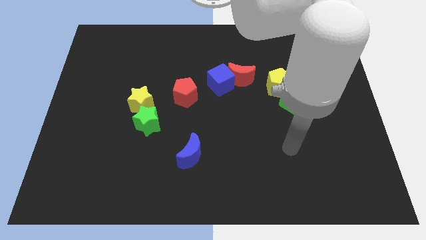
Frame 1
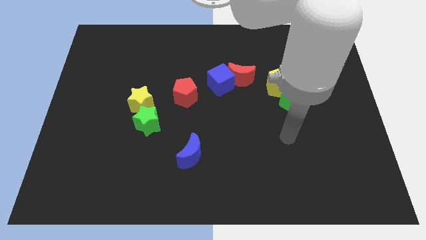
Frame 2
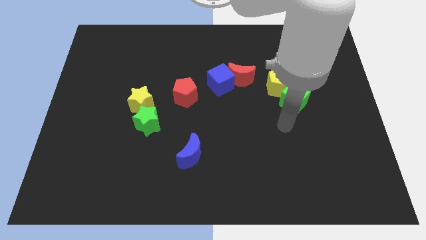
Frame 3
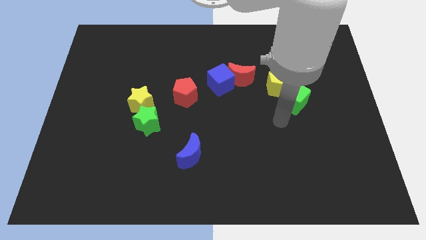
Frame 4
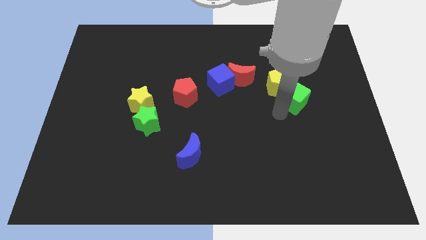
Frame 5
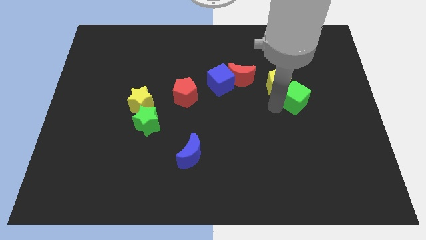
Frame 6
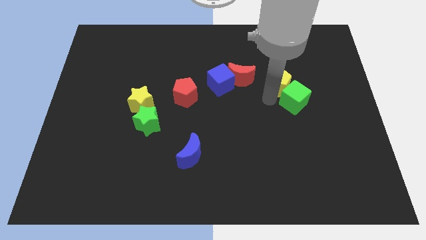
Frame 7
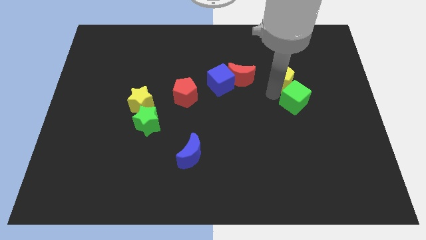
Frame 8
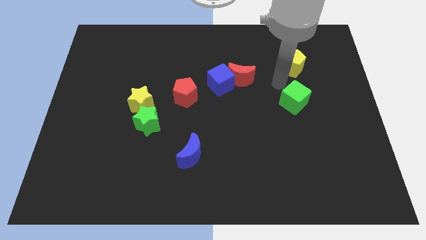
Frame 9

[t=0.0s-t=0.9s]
move the green cube away from the yellow pentagon

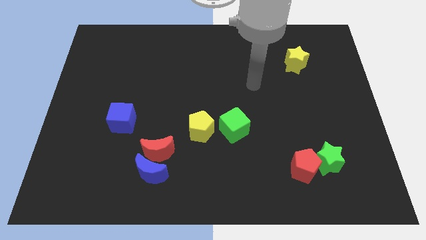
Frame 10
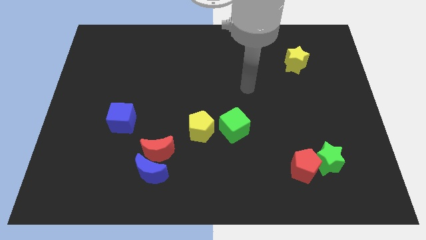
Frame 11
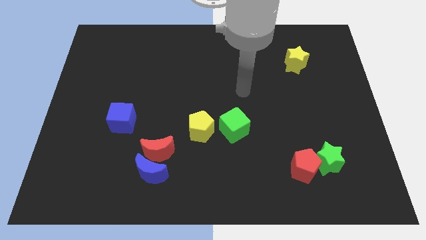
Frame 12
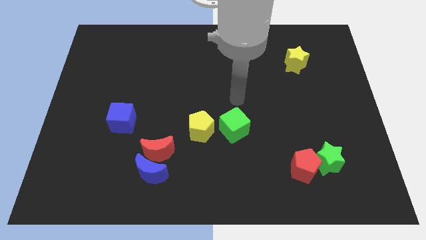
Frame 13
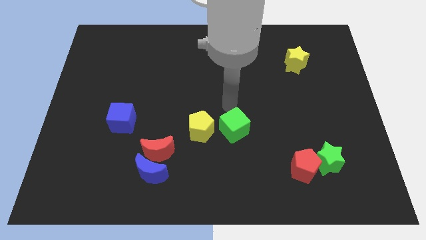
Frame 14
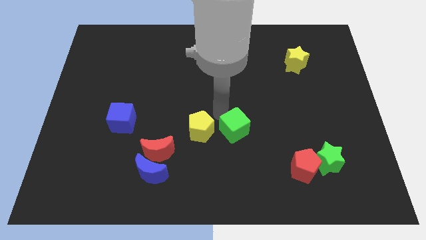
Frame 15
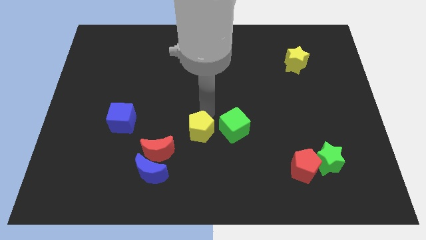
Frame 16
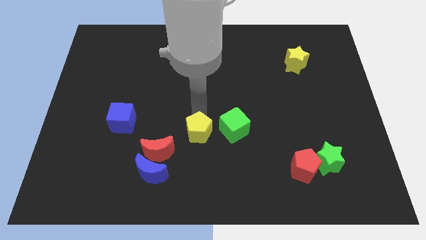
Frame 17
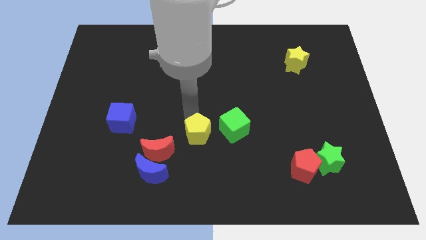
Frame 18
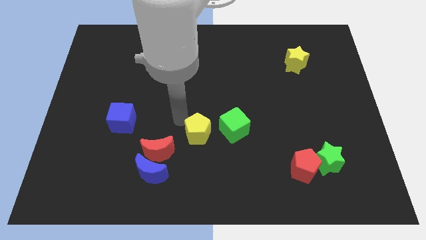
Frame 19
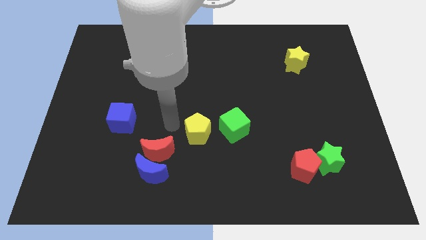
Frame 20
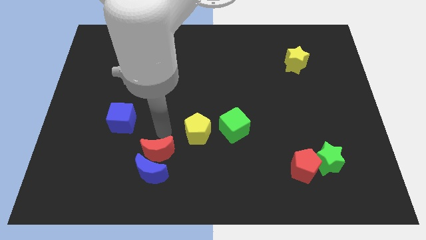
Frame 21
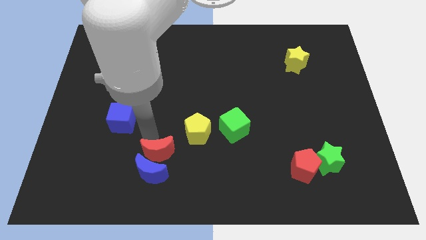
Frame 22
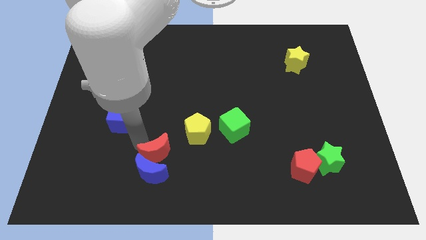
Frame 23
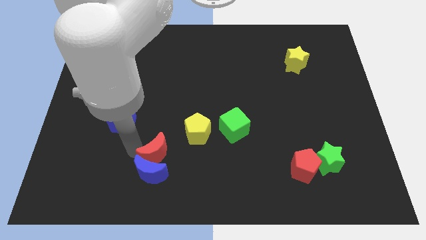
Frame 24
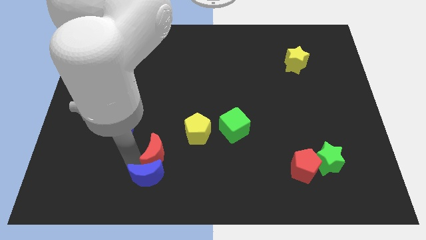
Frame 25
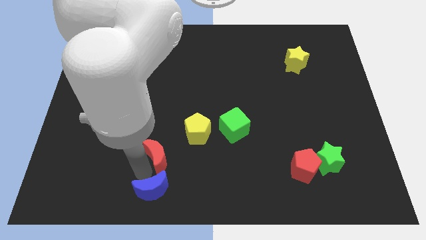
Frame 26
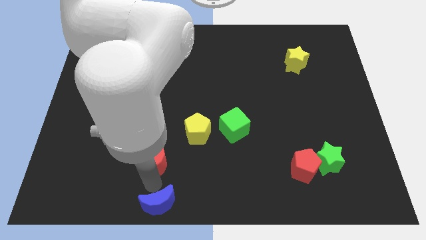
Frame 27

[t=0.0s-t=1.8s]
pull the red moon apart from the blue moon

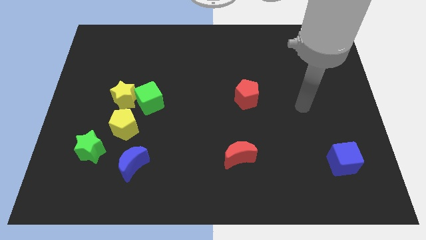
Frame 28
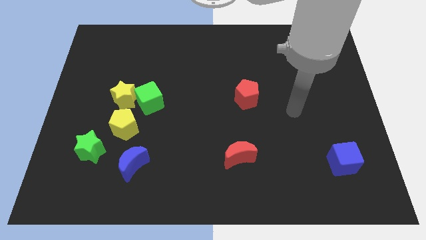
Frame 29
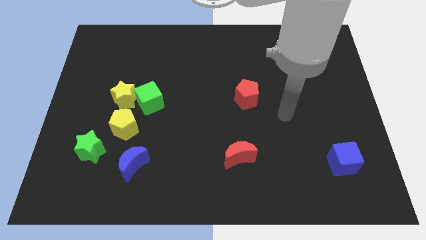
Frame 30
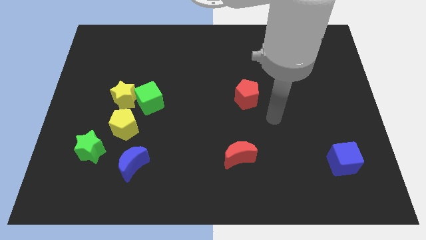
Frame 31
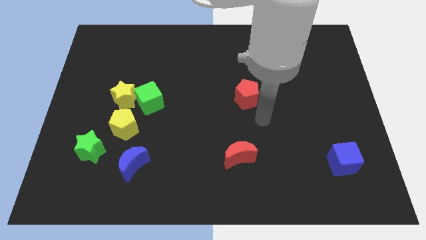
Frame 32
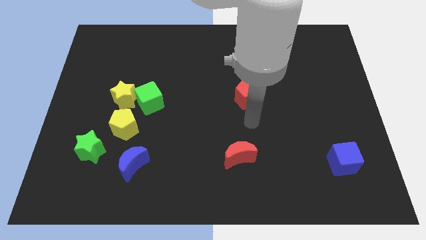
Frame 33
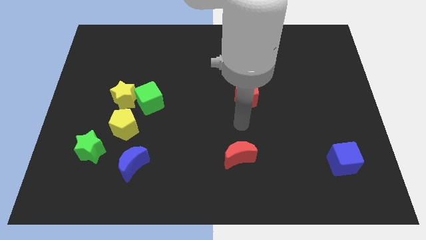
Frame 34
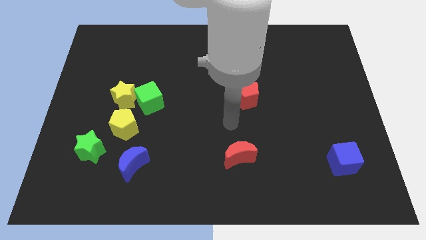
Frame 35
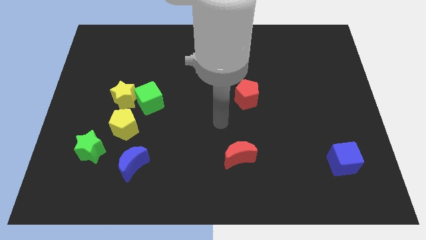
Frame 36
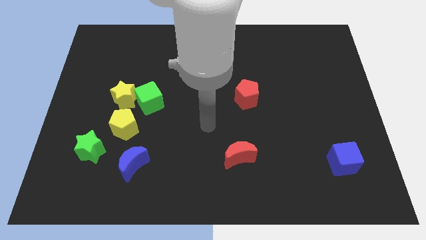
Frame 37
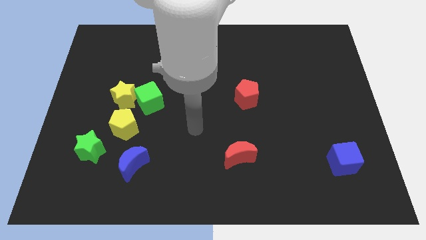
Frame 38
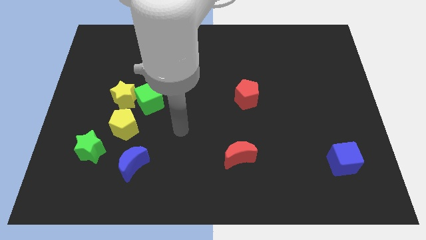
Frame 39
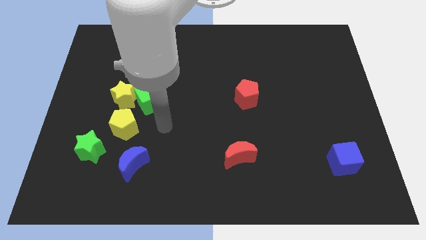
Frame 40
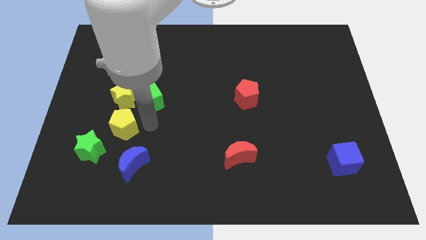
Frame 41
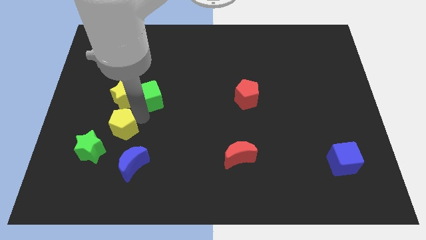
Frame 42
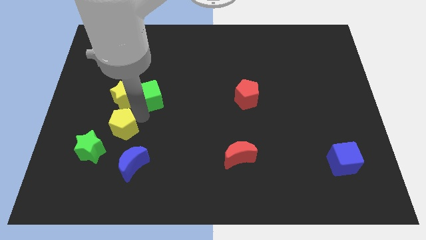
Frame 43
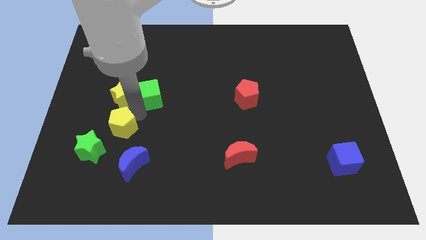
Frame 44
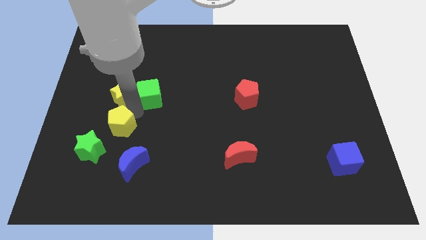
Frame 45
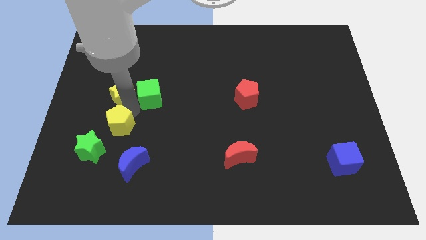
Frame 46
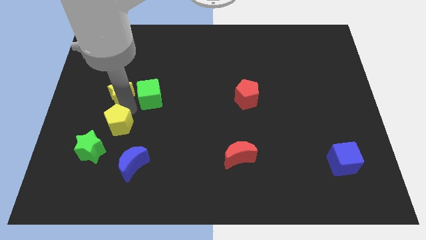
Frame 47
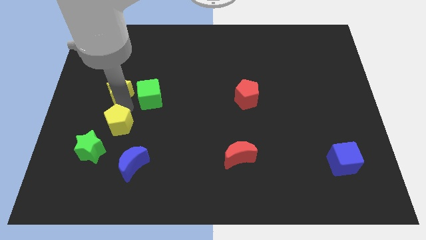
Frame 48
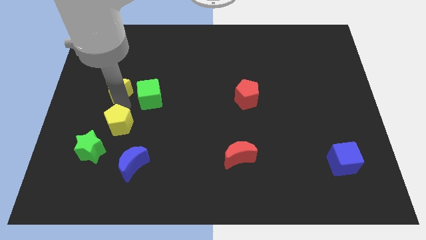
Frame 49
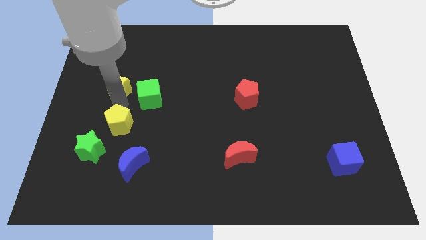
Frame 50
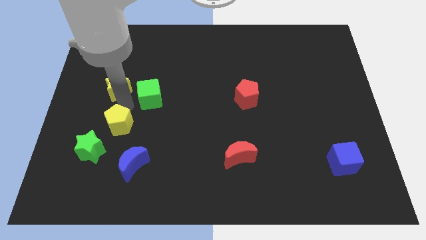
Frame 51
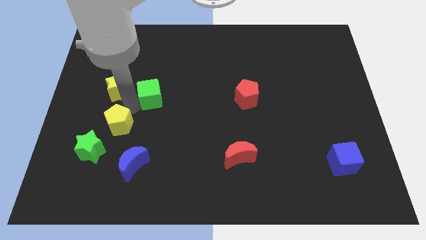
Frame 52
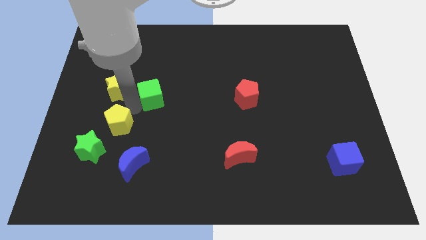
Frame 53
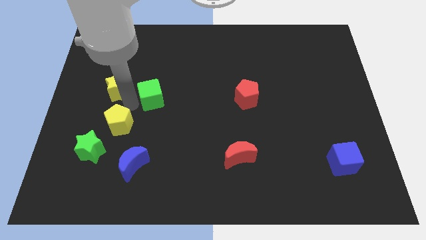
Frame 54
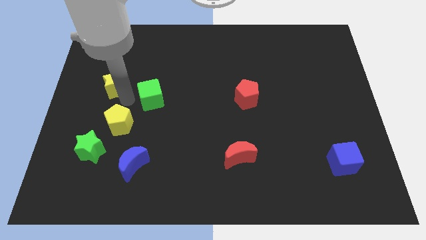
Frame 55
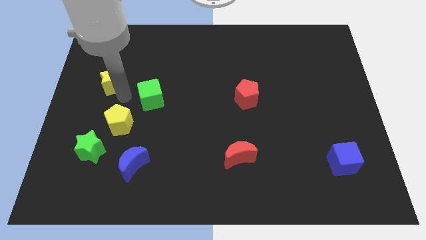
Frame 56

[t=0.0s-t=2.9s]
pull the yellow star apart from the green cube and yellow pentagon

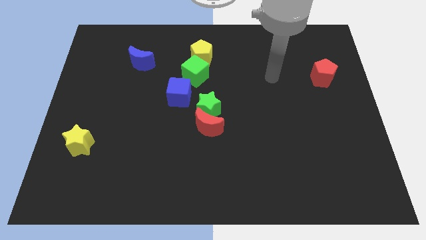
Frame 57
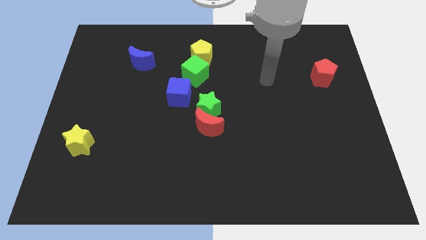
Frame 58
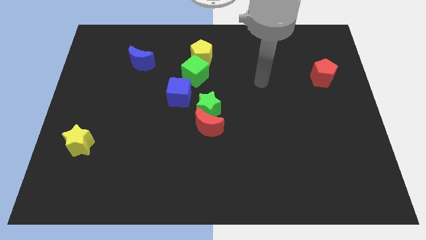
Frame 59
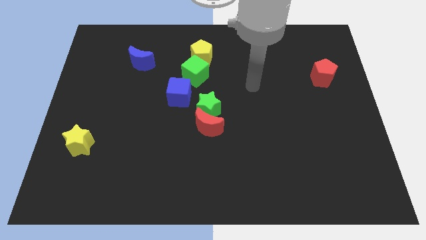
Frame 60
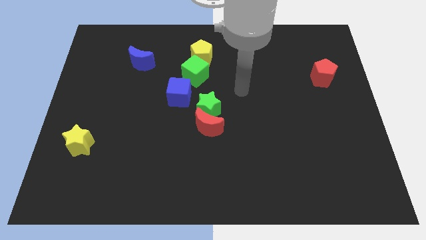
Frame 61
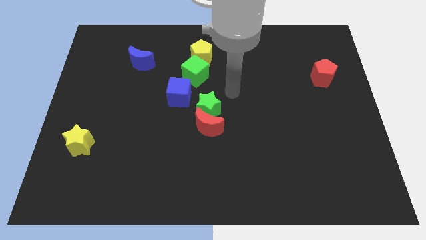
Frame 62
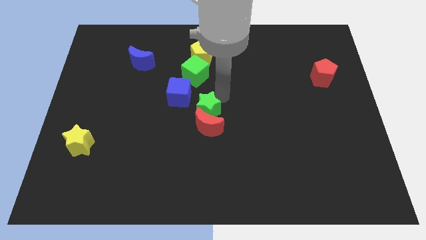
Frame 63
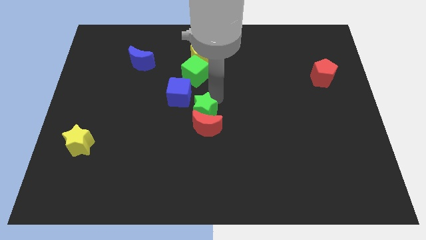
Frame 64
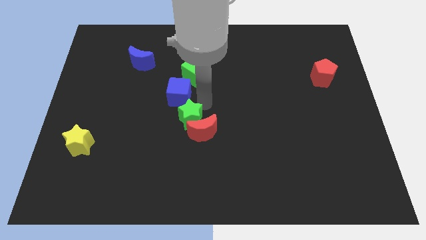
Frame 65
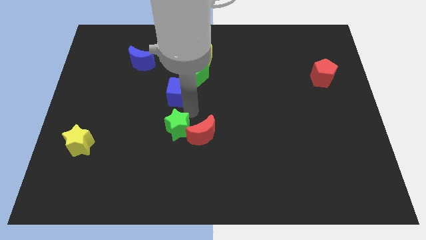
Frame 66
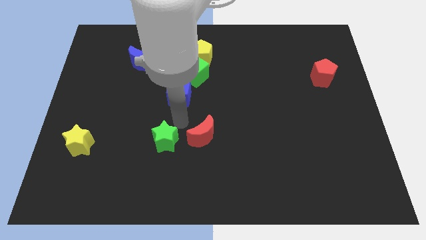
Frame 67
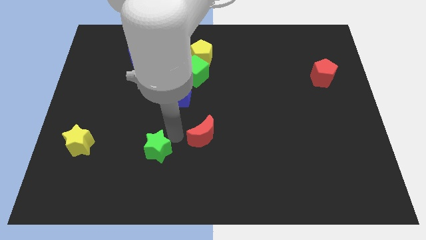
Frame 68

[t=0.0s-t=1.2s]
move the red moon away from the green star

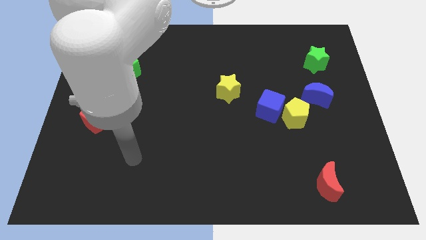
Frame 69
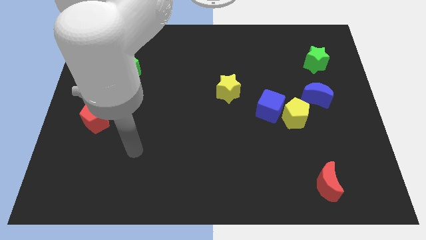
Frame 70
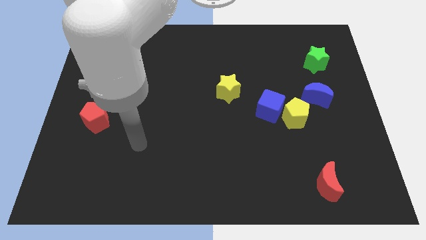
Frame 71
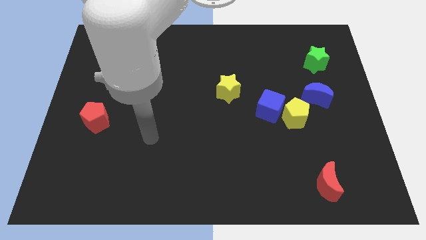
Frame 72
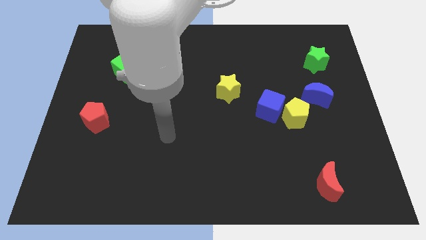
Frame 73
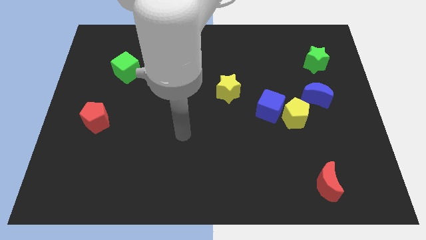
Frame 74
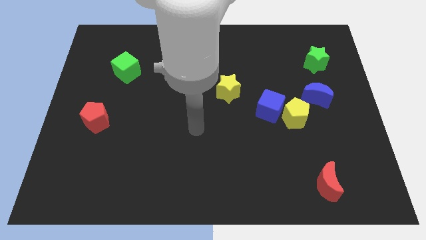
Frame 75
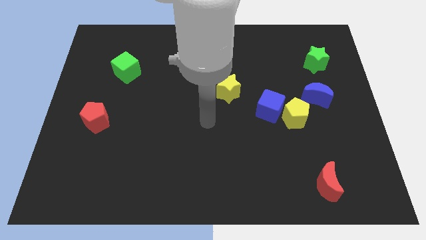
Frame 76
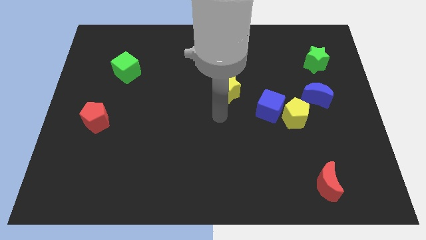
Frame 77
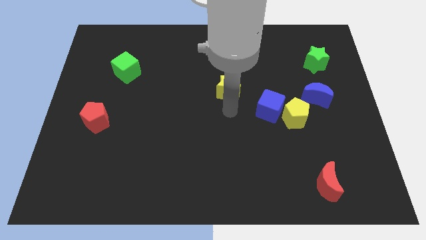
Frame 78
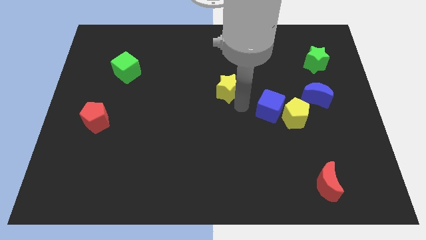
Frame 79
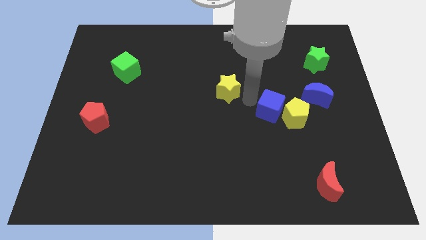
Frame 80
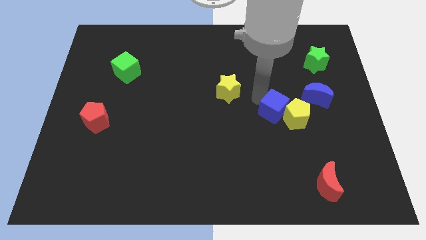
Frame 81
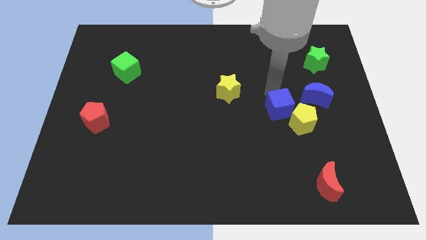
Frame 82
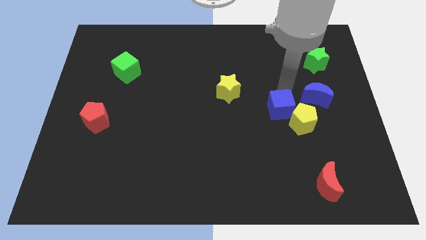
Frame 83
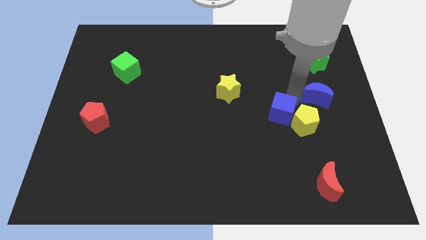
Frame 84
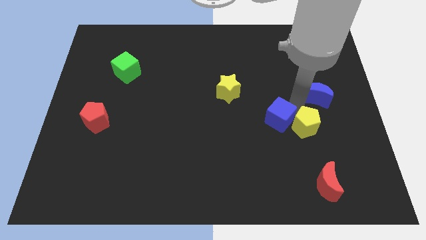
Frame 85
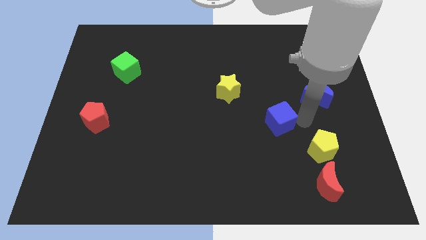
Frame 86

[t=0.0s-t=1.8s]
move the blue cube away from the yellow pentagon

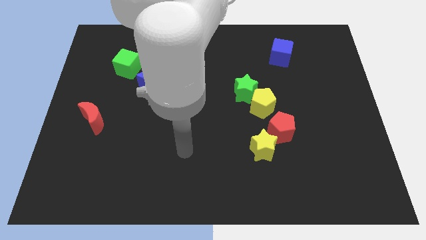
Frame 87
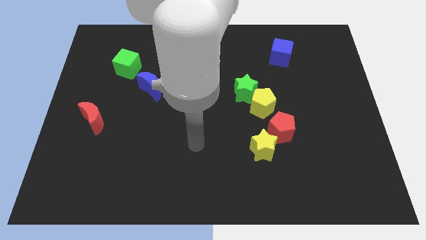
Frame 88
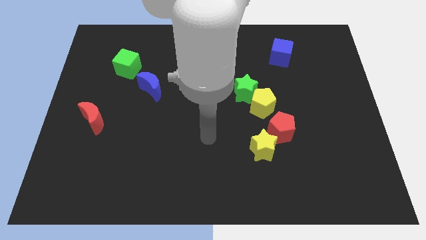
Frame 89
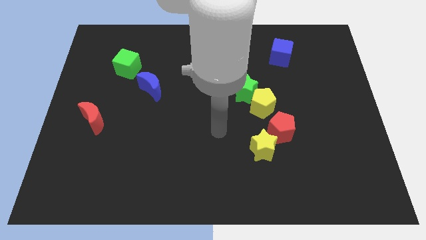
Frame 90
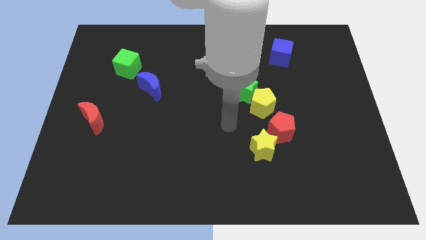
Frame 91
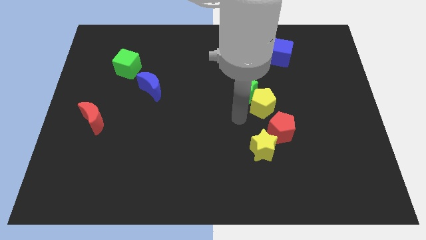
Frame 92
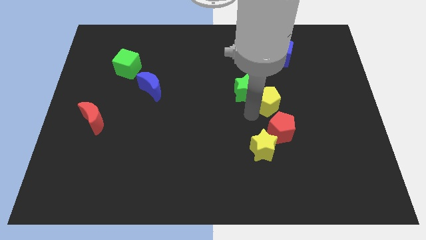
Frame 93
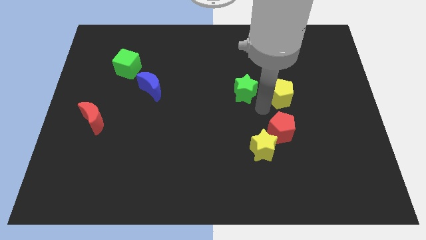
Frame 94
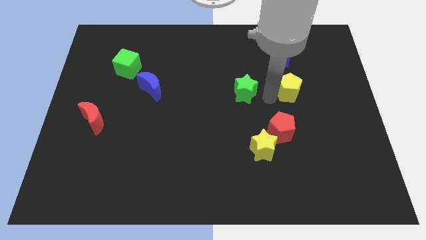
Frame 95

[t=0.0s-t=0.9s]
separate the green star from the yellow pentagon
